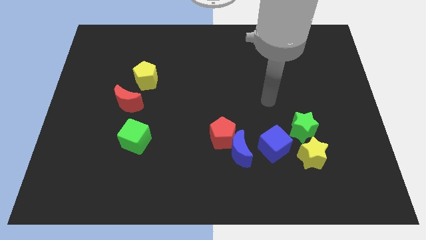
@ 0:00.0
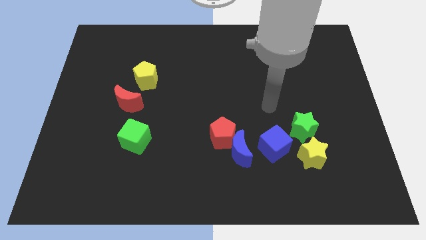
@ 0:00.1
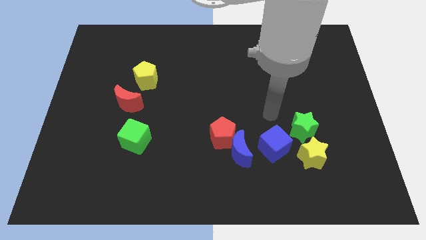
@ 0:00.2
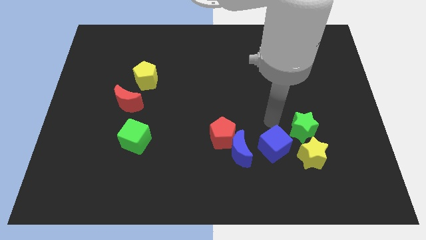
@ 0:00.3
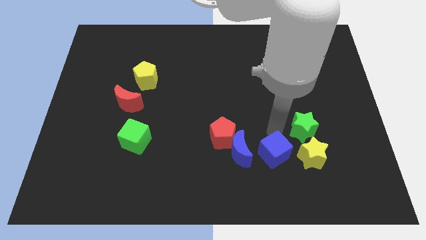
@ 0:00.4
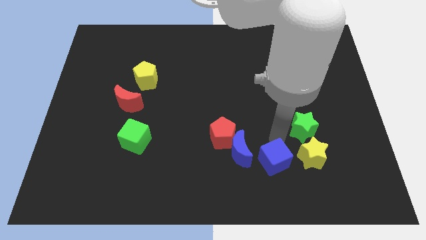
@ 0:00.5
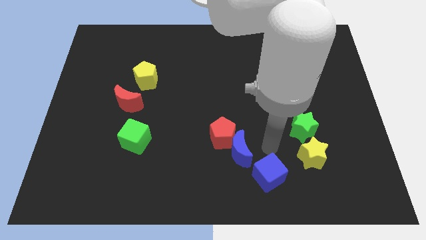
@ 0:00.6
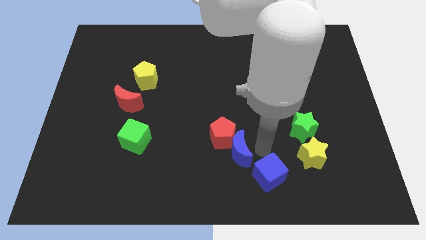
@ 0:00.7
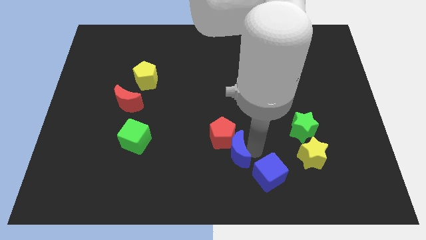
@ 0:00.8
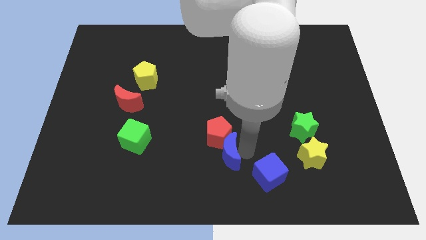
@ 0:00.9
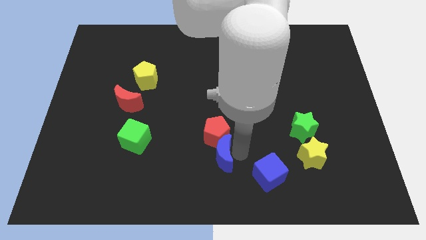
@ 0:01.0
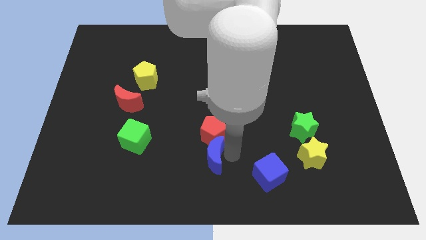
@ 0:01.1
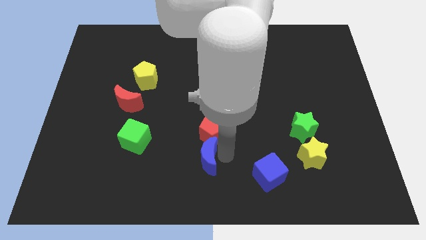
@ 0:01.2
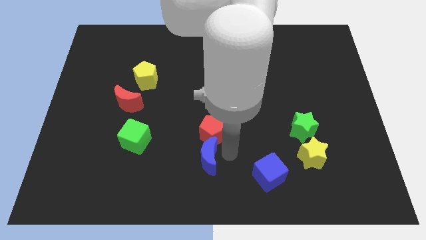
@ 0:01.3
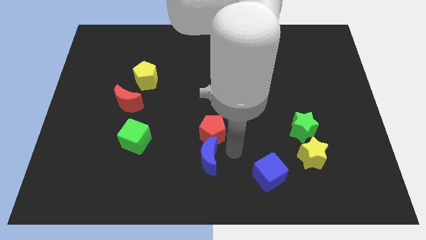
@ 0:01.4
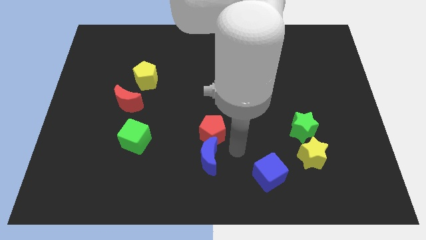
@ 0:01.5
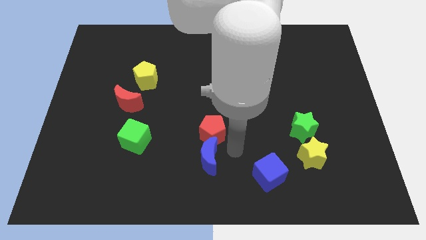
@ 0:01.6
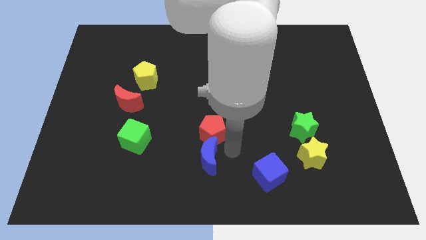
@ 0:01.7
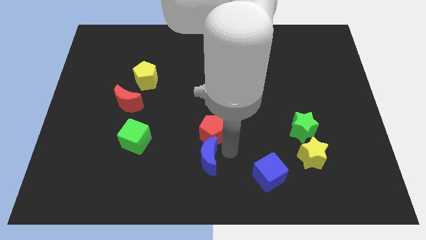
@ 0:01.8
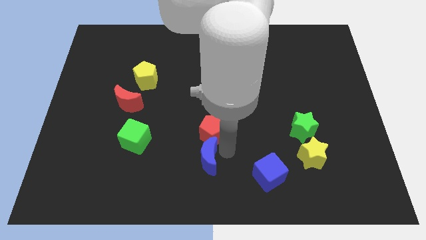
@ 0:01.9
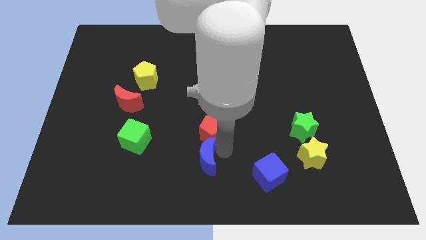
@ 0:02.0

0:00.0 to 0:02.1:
slide the blue moon left slightly

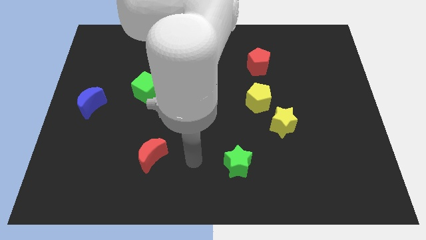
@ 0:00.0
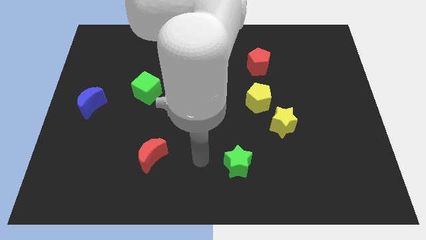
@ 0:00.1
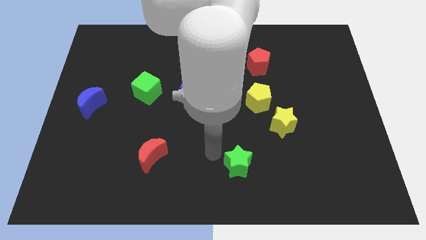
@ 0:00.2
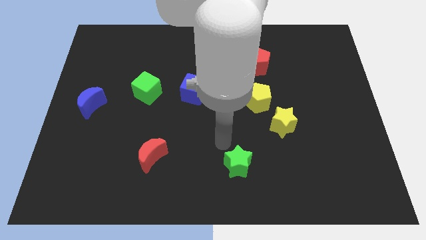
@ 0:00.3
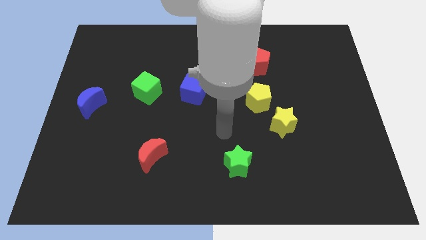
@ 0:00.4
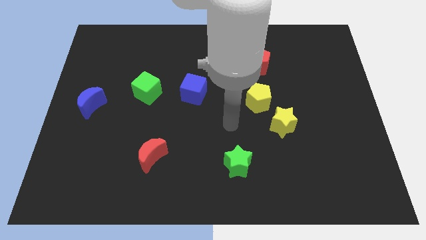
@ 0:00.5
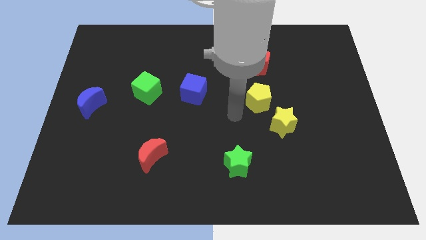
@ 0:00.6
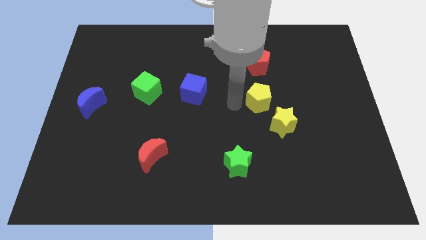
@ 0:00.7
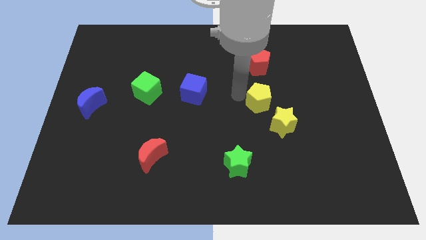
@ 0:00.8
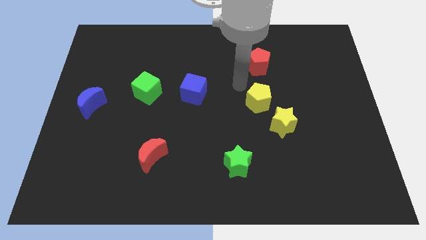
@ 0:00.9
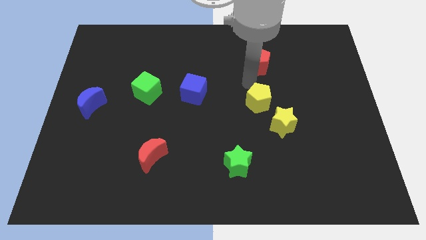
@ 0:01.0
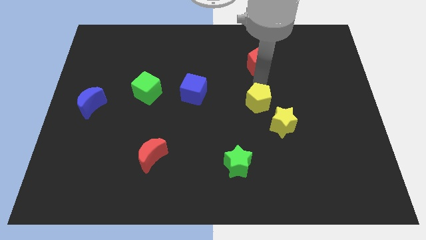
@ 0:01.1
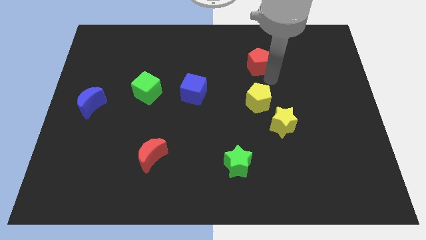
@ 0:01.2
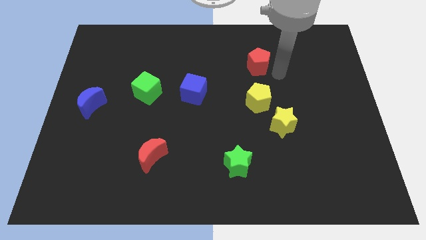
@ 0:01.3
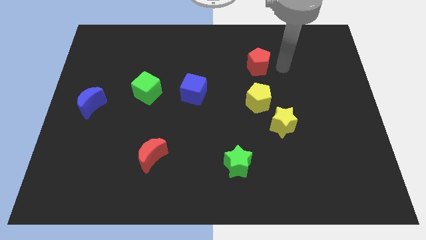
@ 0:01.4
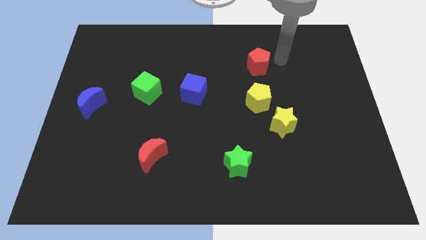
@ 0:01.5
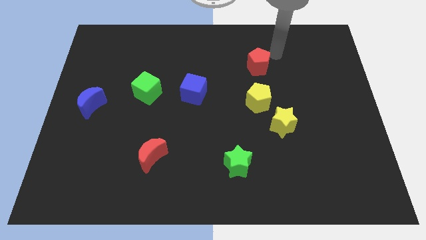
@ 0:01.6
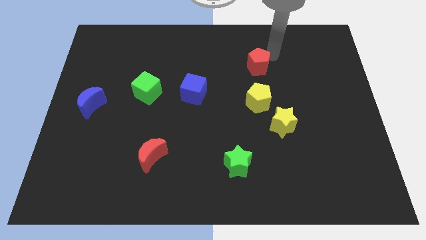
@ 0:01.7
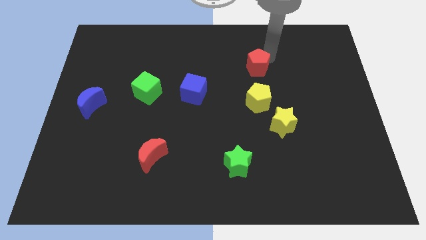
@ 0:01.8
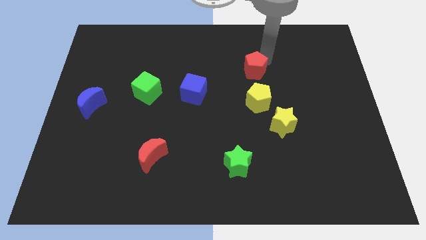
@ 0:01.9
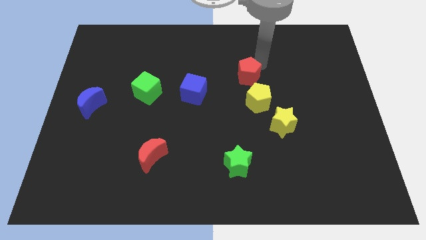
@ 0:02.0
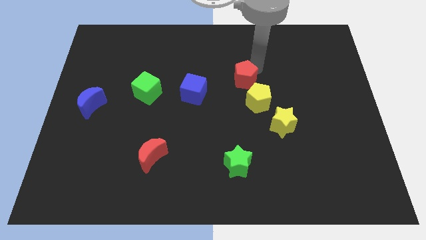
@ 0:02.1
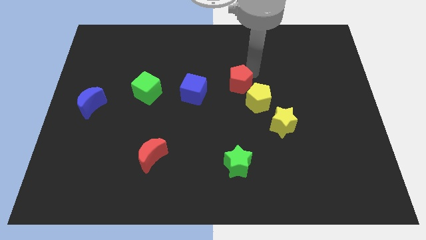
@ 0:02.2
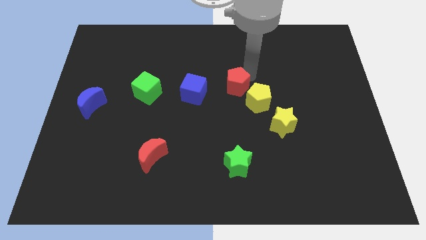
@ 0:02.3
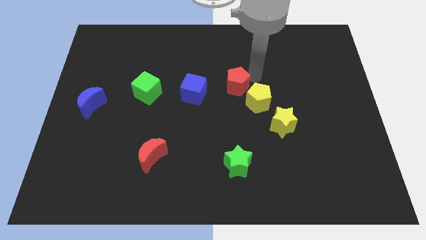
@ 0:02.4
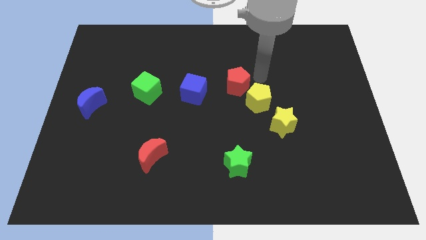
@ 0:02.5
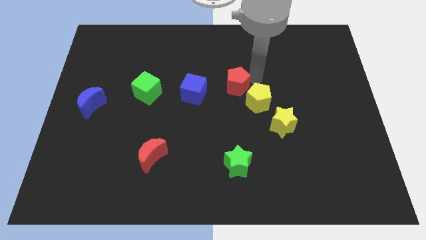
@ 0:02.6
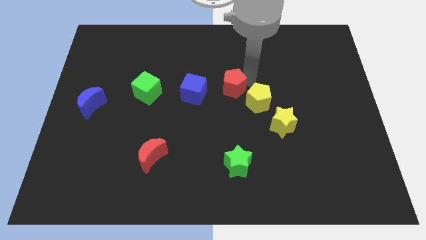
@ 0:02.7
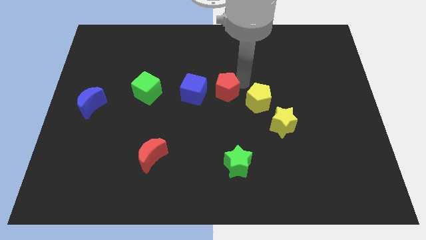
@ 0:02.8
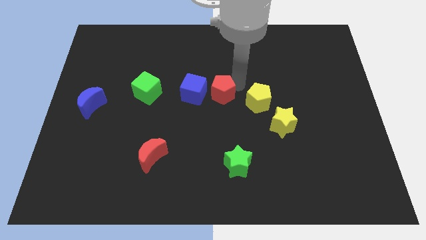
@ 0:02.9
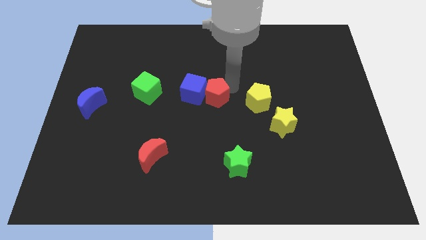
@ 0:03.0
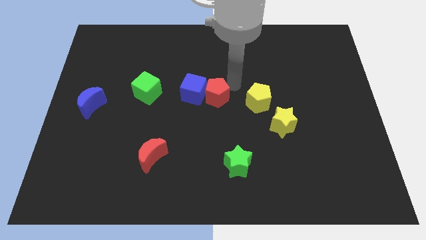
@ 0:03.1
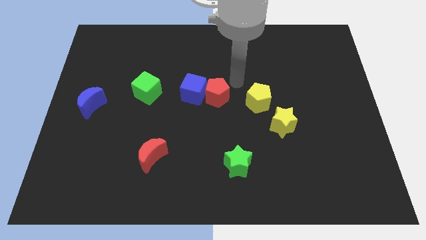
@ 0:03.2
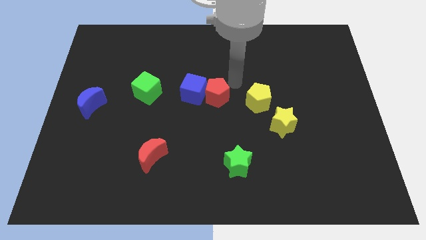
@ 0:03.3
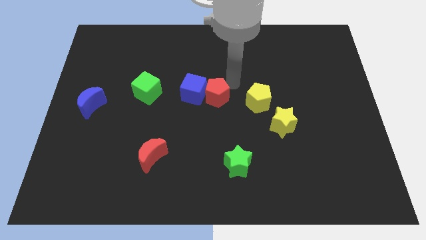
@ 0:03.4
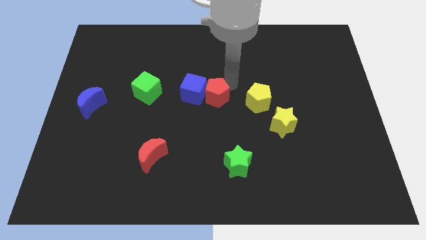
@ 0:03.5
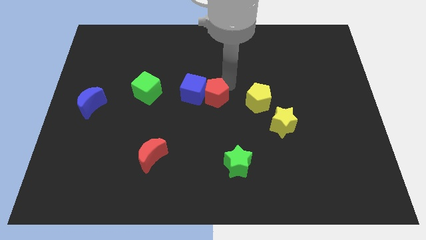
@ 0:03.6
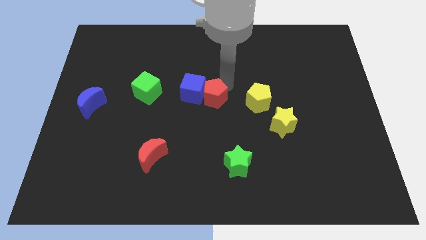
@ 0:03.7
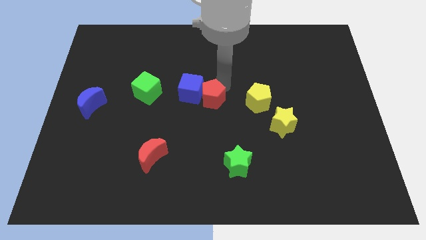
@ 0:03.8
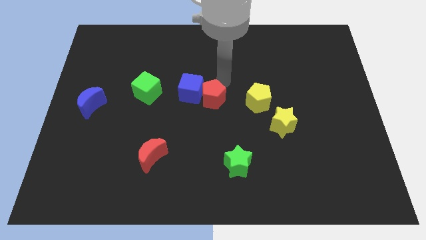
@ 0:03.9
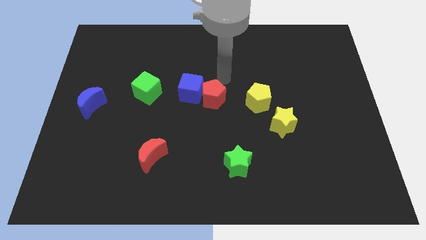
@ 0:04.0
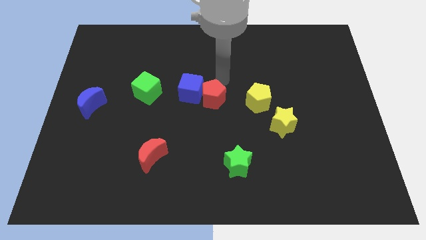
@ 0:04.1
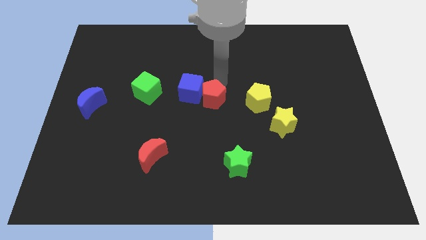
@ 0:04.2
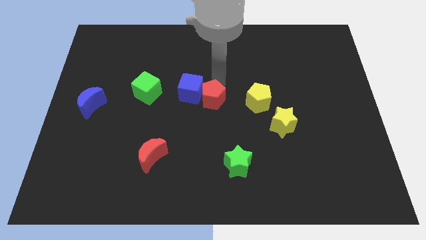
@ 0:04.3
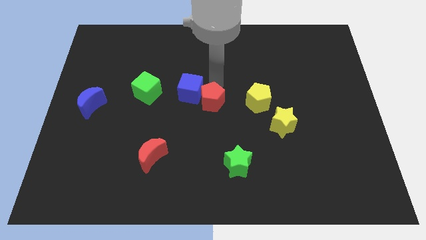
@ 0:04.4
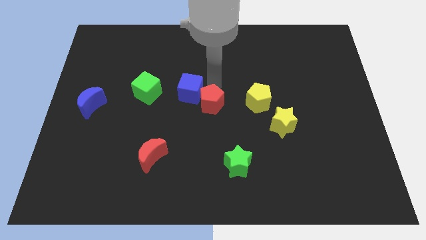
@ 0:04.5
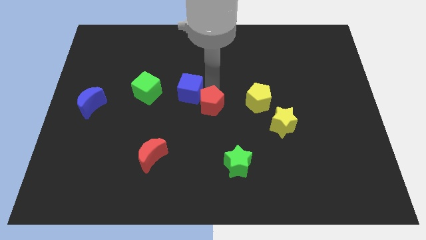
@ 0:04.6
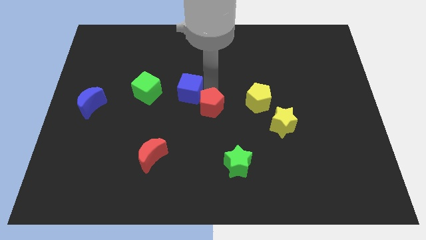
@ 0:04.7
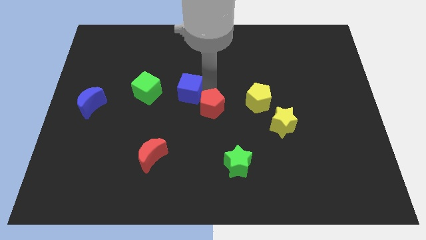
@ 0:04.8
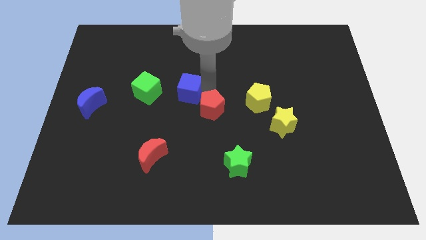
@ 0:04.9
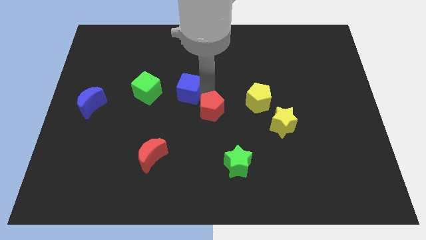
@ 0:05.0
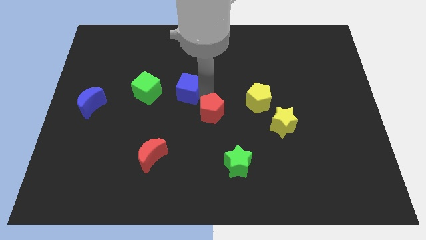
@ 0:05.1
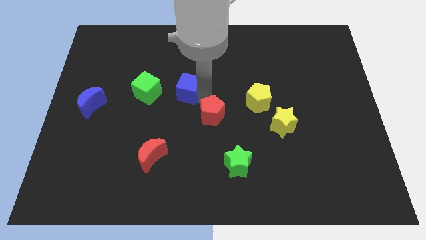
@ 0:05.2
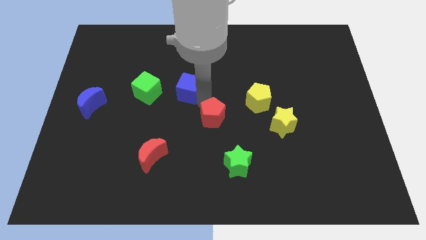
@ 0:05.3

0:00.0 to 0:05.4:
push the red pentagon diagonally downwards and left

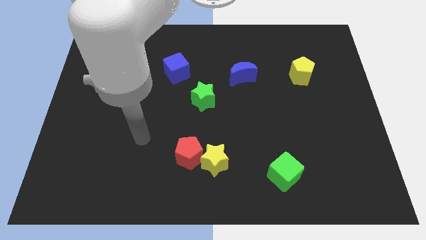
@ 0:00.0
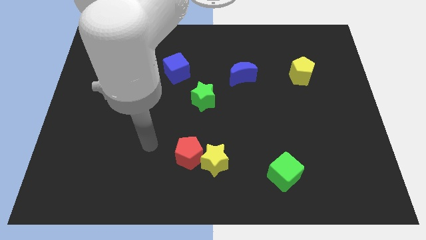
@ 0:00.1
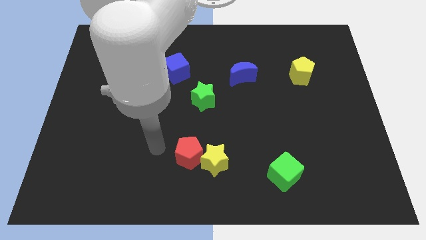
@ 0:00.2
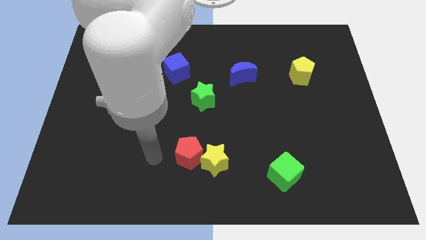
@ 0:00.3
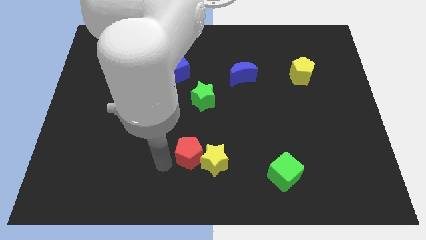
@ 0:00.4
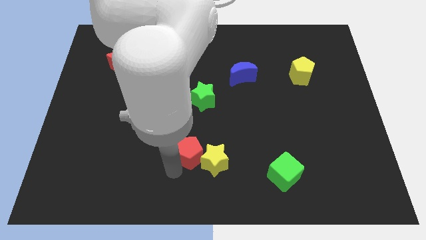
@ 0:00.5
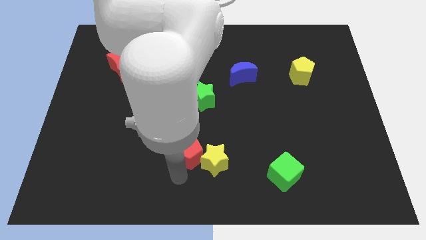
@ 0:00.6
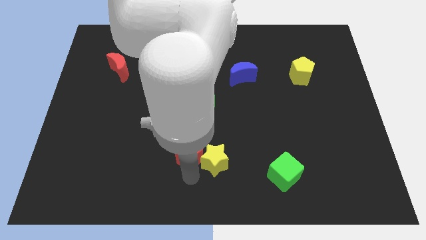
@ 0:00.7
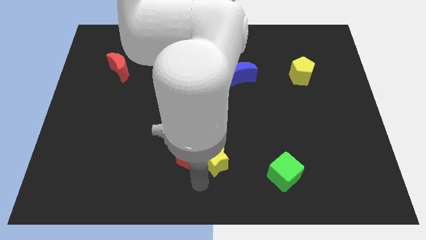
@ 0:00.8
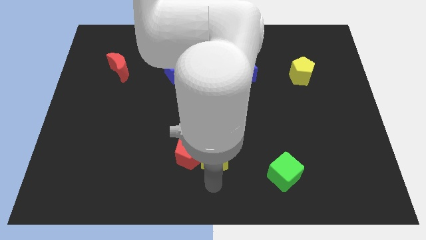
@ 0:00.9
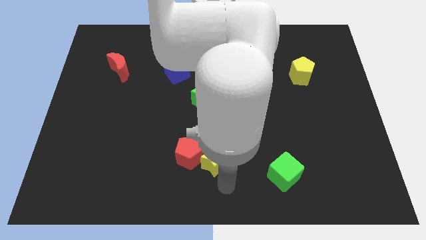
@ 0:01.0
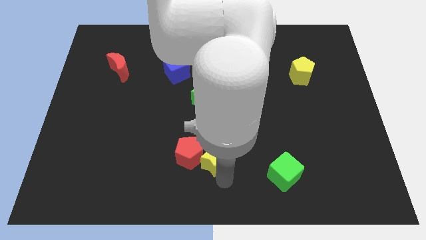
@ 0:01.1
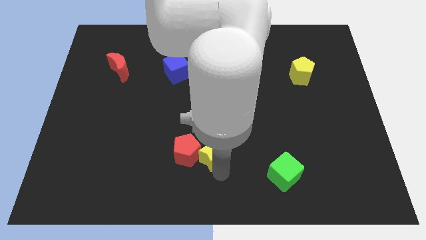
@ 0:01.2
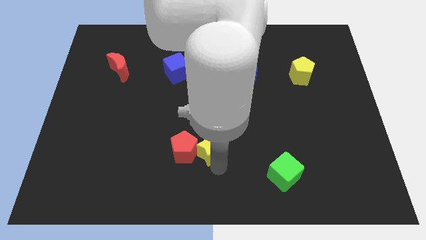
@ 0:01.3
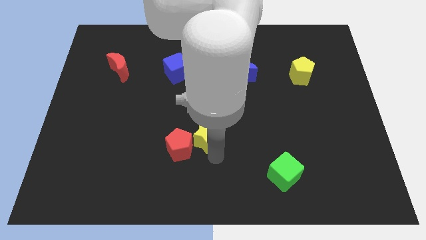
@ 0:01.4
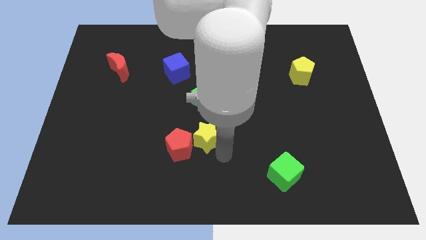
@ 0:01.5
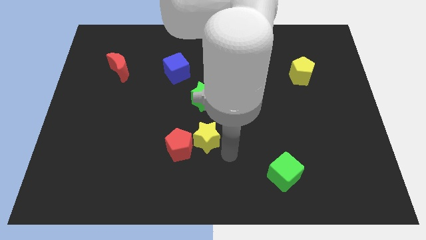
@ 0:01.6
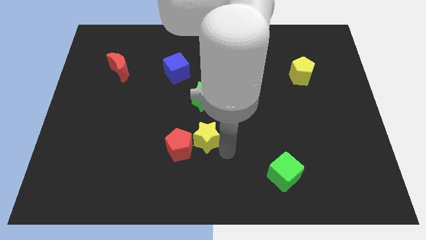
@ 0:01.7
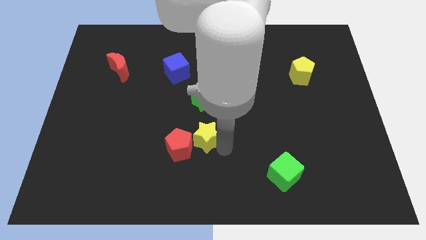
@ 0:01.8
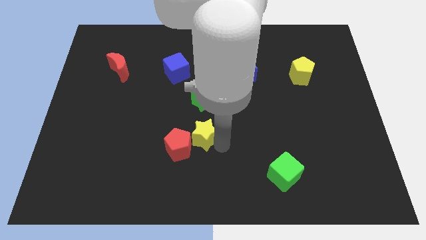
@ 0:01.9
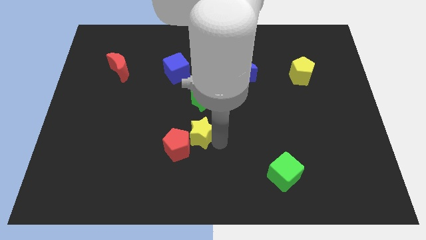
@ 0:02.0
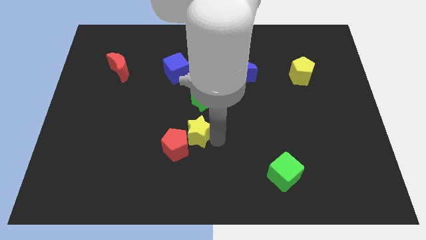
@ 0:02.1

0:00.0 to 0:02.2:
move the yellow star slightly upwards and to the left diagonally
